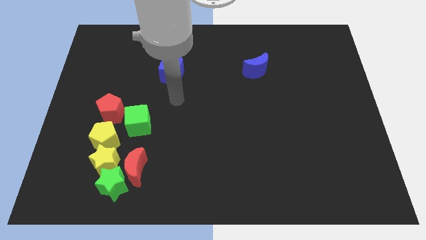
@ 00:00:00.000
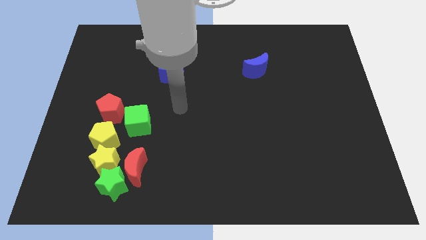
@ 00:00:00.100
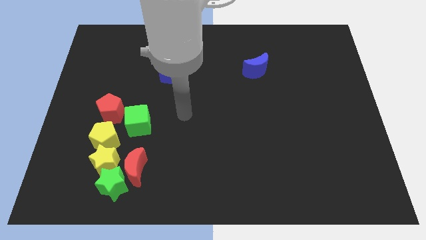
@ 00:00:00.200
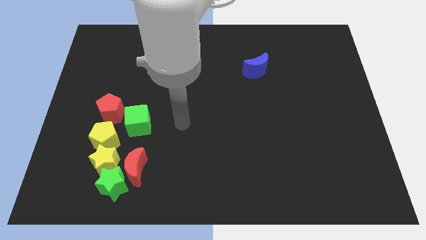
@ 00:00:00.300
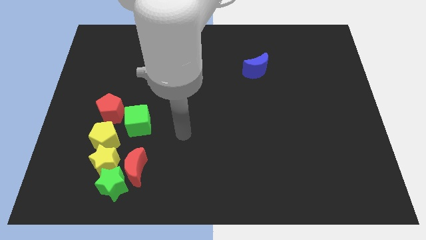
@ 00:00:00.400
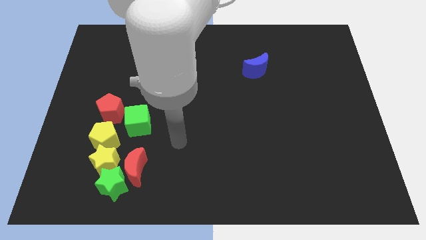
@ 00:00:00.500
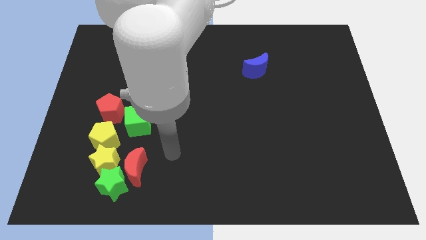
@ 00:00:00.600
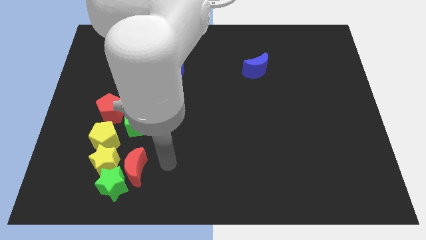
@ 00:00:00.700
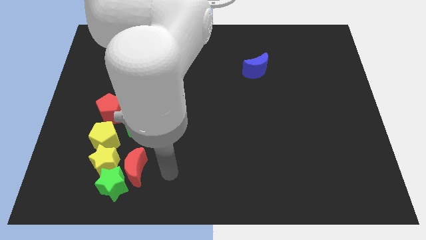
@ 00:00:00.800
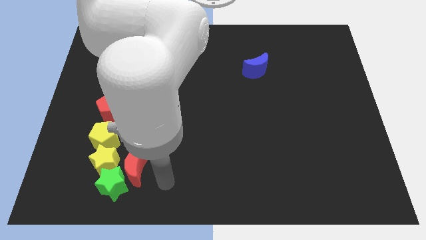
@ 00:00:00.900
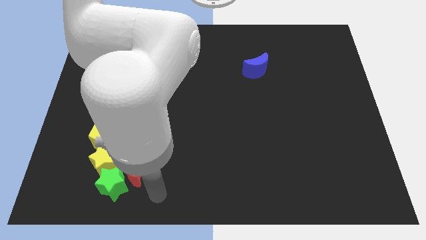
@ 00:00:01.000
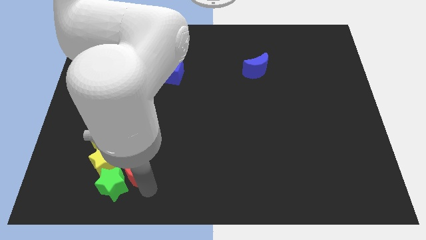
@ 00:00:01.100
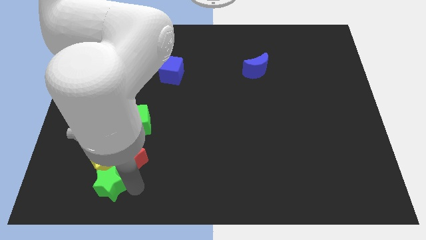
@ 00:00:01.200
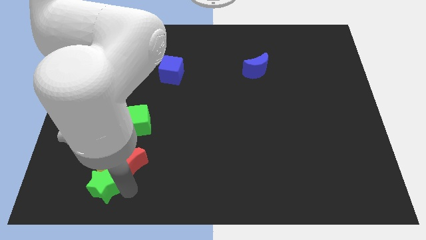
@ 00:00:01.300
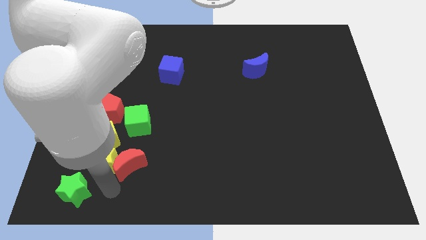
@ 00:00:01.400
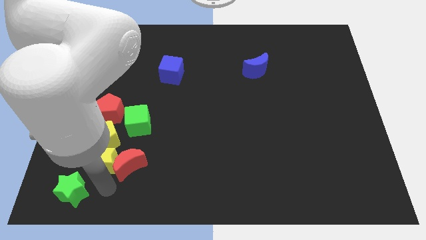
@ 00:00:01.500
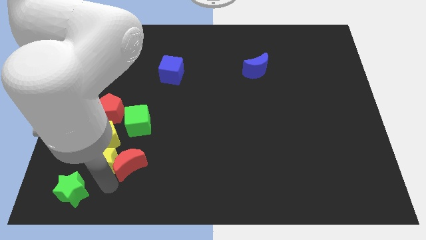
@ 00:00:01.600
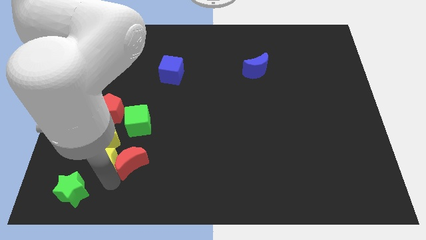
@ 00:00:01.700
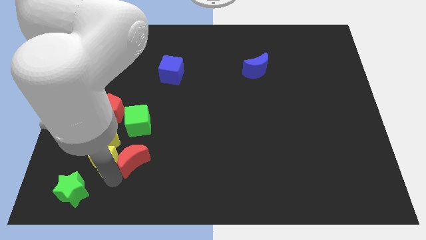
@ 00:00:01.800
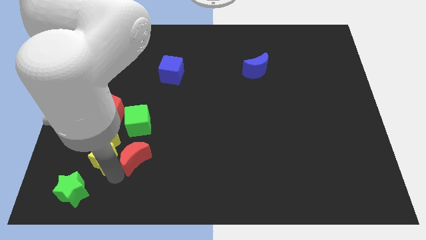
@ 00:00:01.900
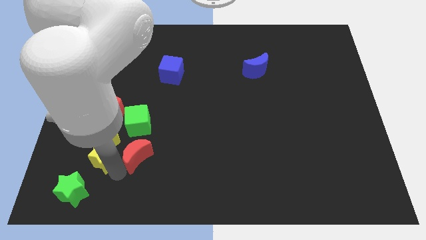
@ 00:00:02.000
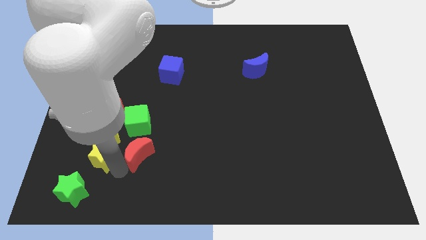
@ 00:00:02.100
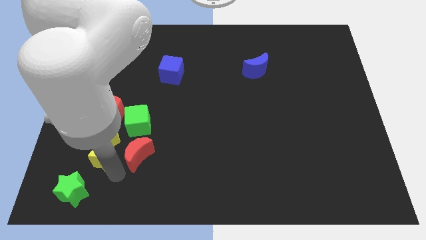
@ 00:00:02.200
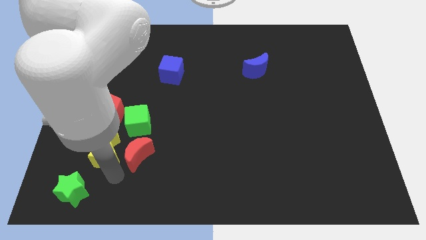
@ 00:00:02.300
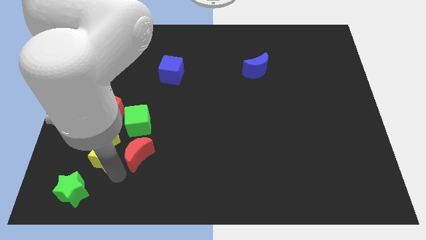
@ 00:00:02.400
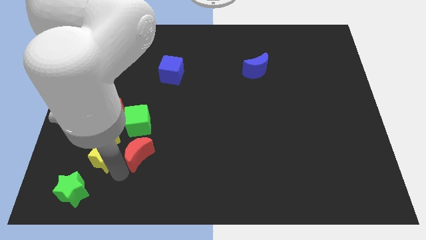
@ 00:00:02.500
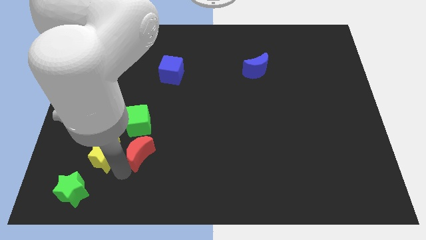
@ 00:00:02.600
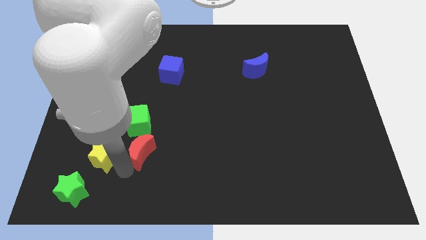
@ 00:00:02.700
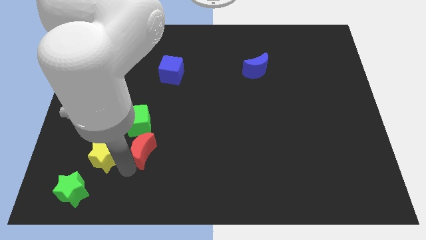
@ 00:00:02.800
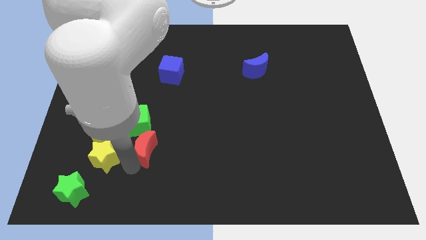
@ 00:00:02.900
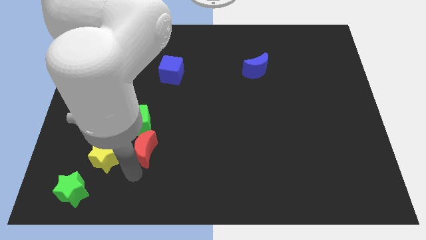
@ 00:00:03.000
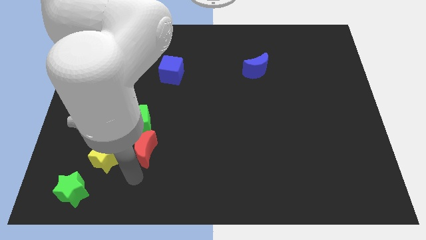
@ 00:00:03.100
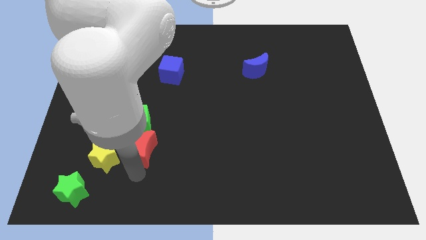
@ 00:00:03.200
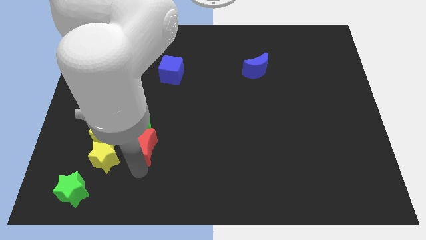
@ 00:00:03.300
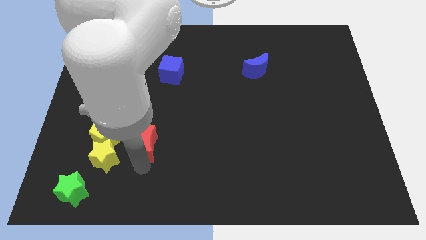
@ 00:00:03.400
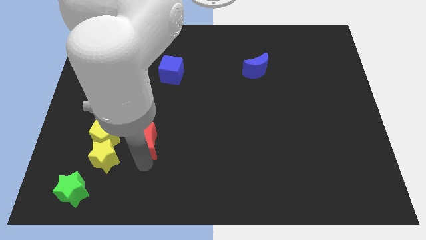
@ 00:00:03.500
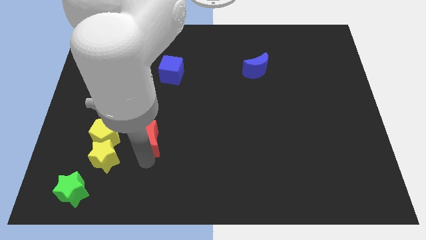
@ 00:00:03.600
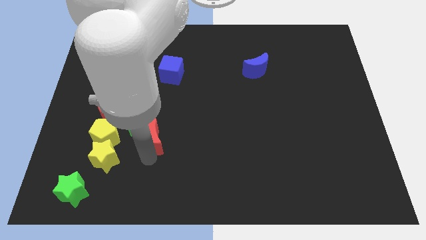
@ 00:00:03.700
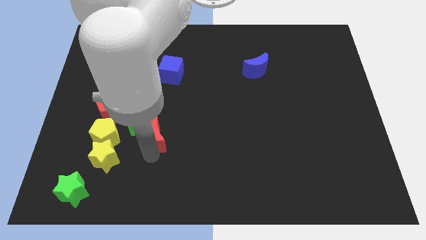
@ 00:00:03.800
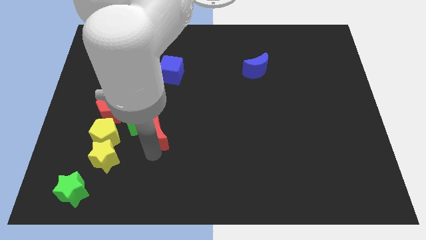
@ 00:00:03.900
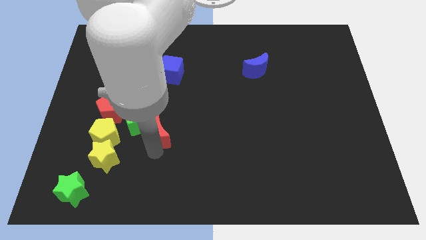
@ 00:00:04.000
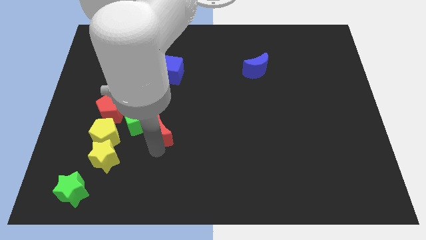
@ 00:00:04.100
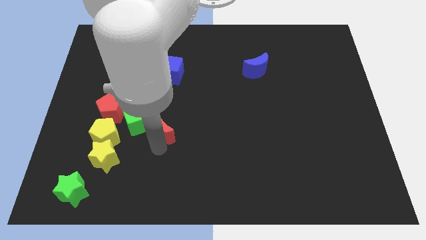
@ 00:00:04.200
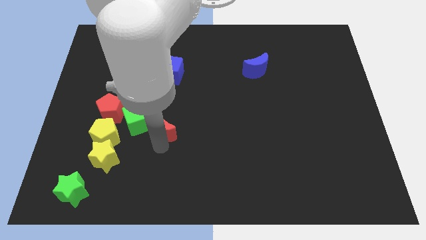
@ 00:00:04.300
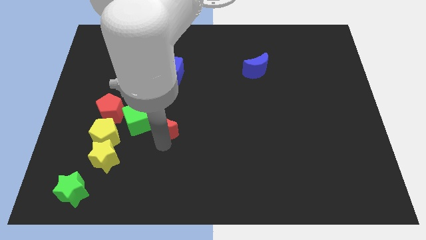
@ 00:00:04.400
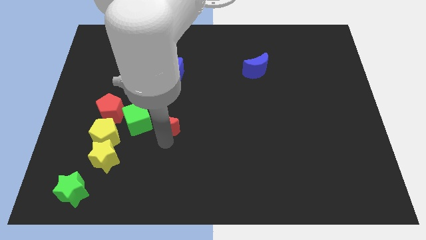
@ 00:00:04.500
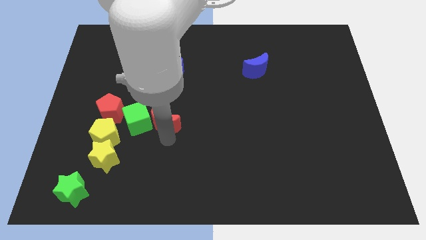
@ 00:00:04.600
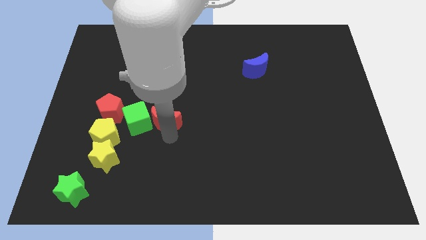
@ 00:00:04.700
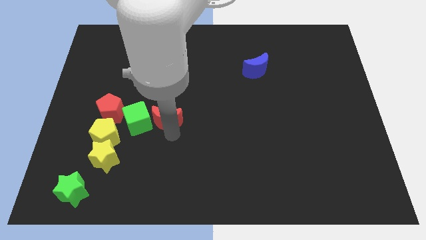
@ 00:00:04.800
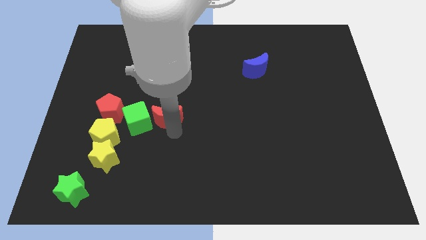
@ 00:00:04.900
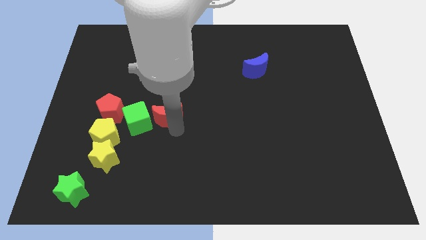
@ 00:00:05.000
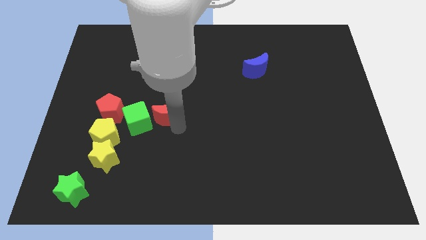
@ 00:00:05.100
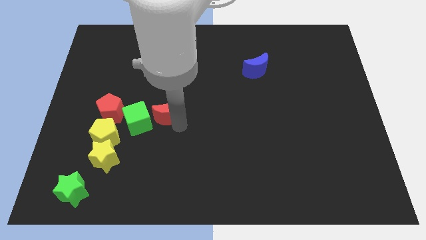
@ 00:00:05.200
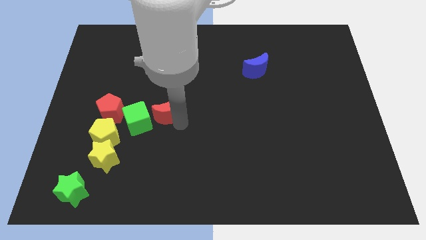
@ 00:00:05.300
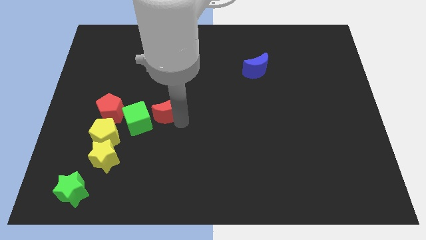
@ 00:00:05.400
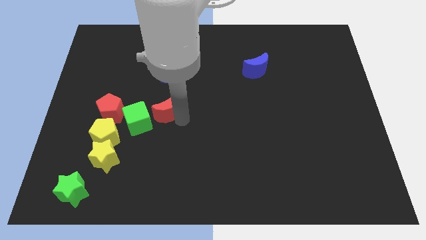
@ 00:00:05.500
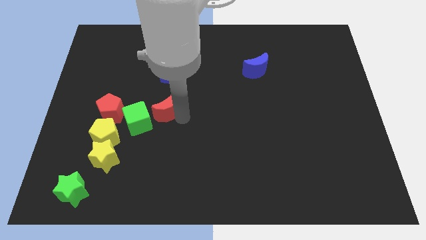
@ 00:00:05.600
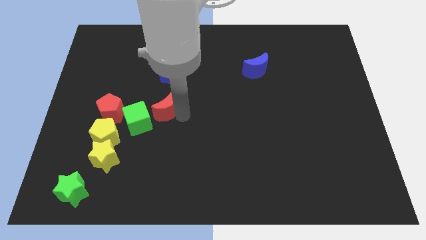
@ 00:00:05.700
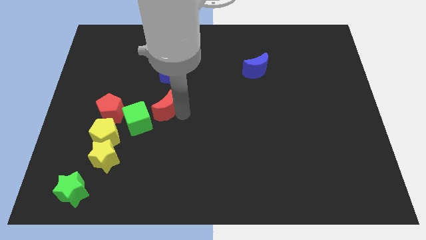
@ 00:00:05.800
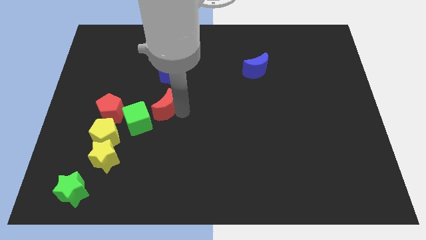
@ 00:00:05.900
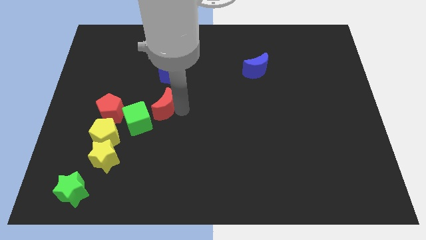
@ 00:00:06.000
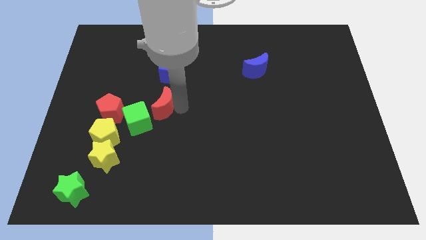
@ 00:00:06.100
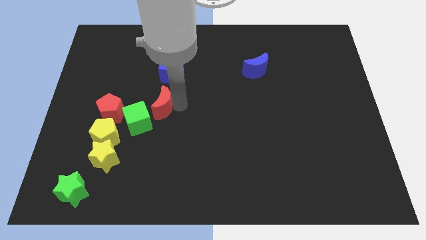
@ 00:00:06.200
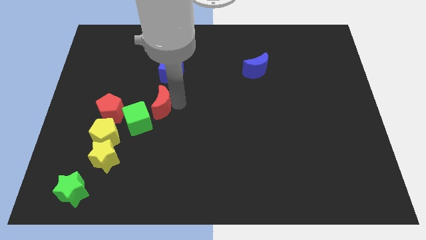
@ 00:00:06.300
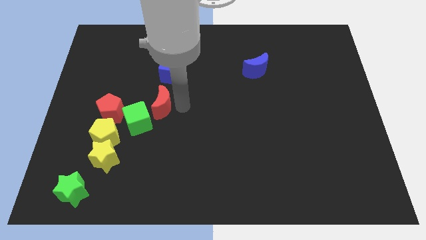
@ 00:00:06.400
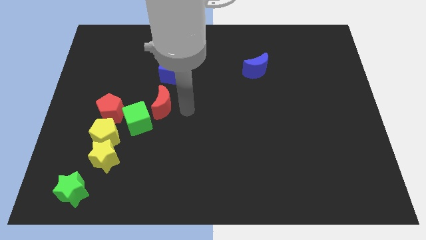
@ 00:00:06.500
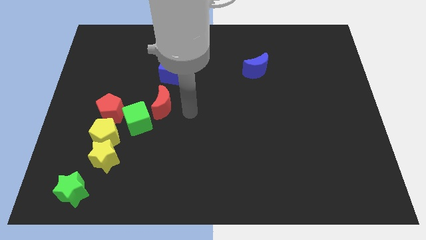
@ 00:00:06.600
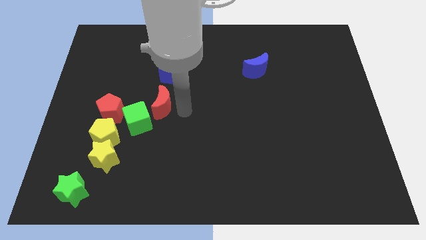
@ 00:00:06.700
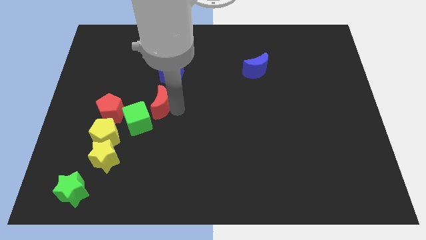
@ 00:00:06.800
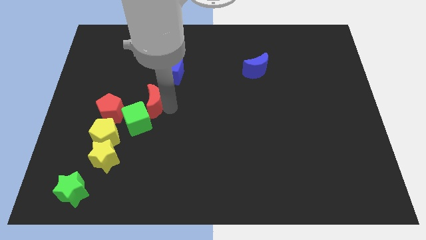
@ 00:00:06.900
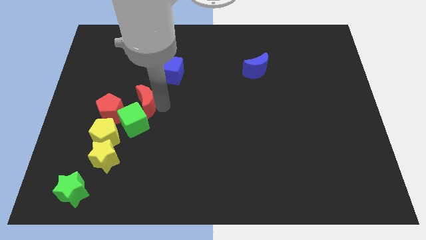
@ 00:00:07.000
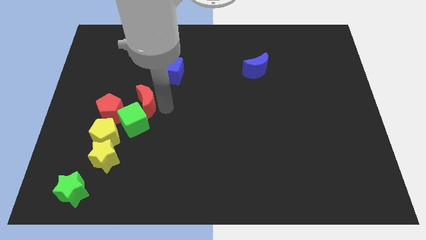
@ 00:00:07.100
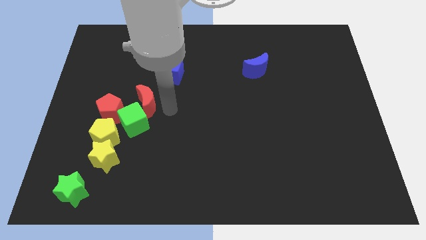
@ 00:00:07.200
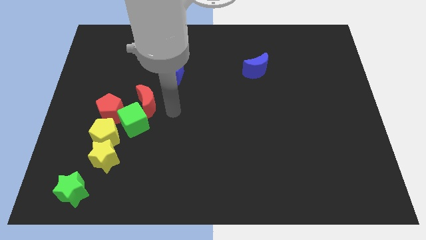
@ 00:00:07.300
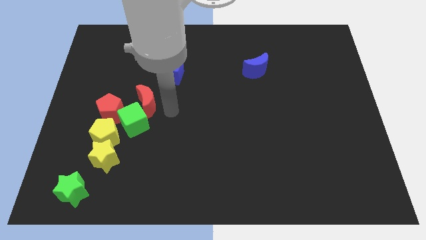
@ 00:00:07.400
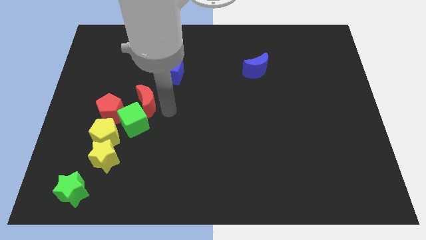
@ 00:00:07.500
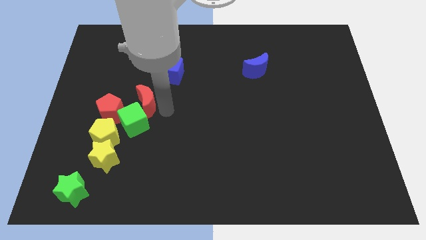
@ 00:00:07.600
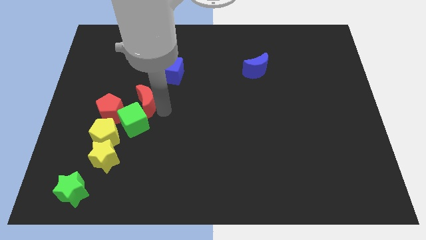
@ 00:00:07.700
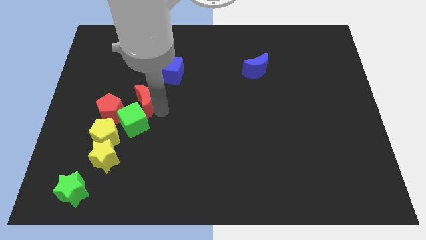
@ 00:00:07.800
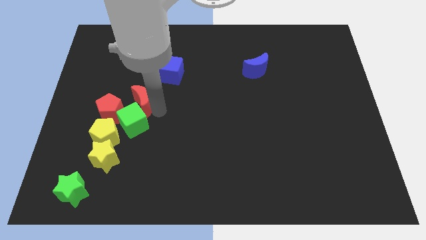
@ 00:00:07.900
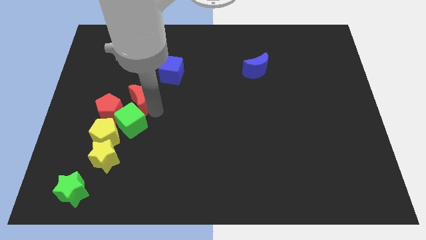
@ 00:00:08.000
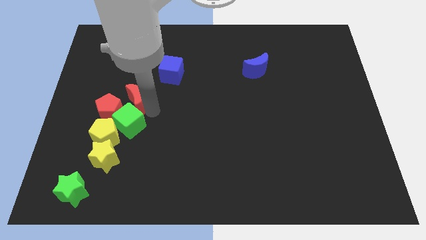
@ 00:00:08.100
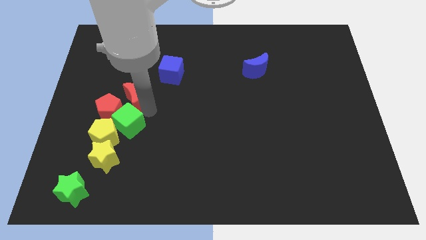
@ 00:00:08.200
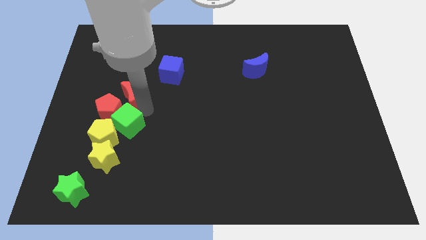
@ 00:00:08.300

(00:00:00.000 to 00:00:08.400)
slide the red moon to the top of the yellow pentagon
